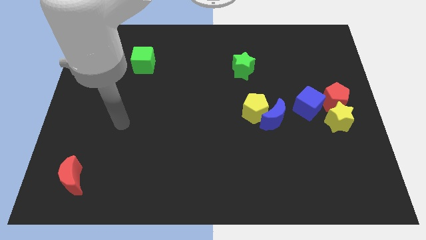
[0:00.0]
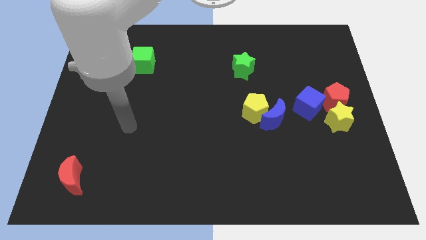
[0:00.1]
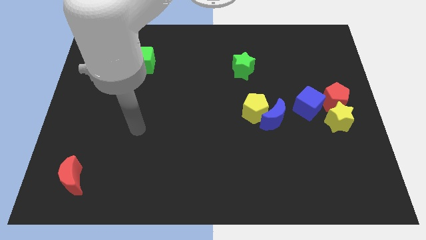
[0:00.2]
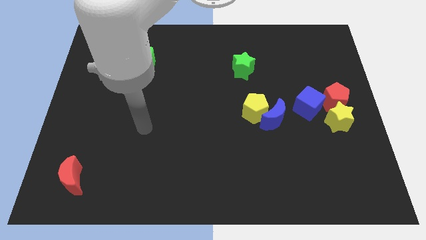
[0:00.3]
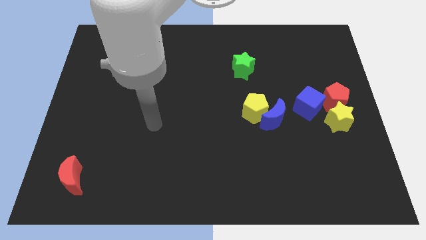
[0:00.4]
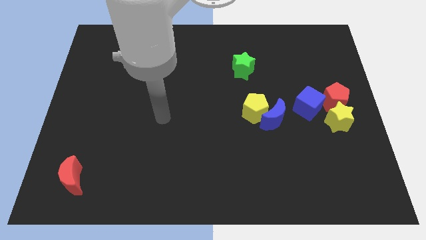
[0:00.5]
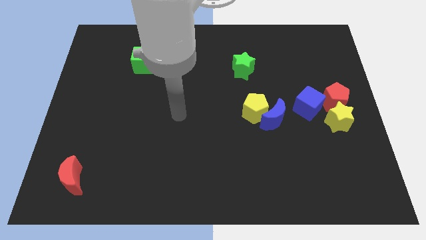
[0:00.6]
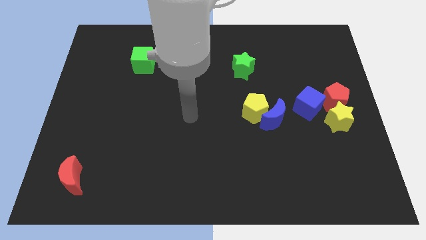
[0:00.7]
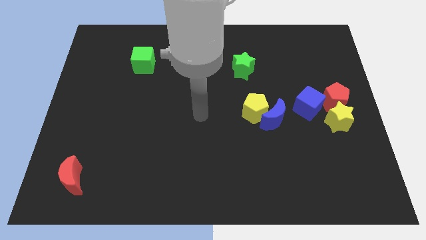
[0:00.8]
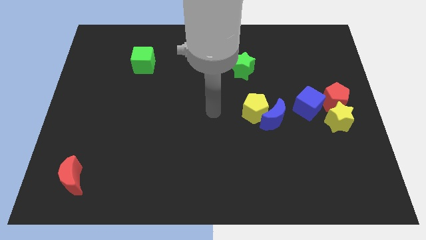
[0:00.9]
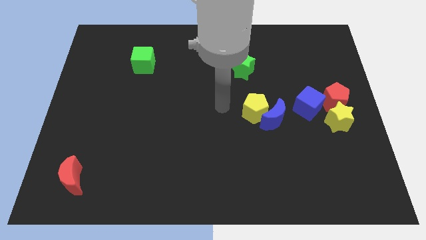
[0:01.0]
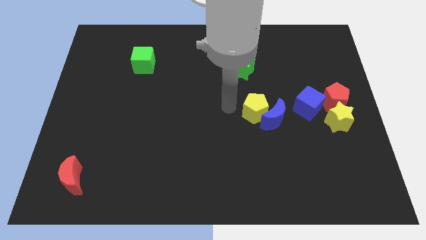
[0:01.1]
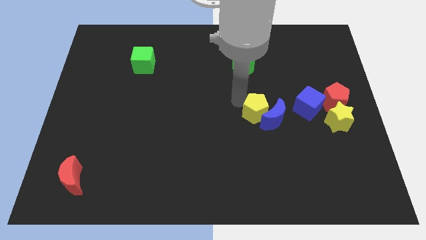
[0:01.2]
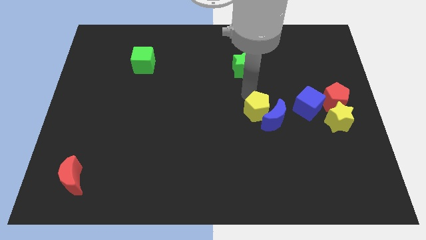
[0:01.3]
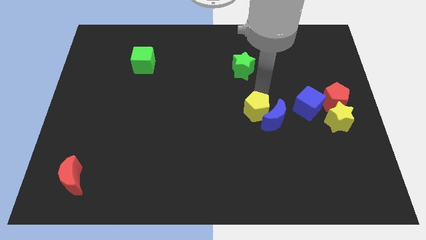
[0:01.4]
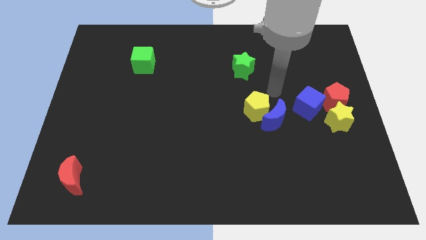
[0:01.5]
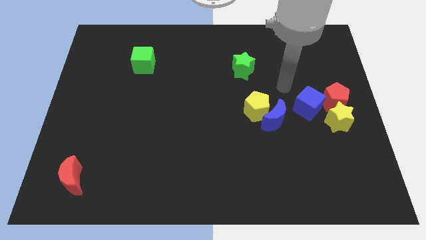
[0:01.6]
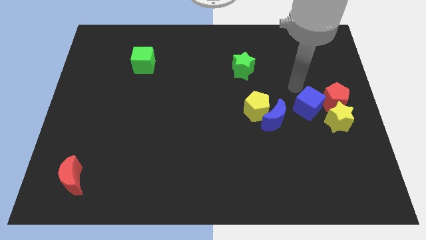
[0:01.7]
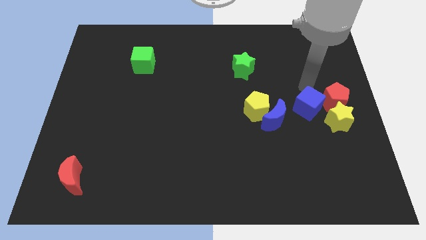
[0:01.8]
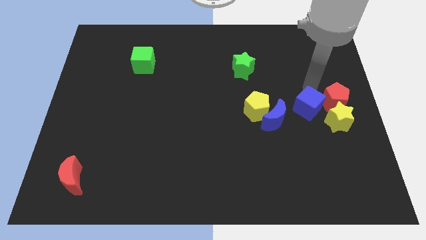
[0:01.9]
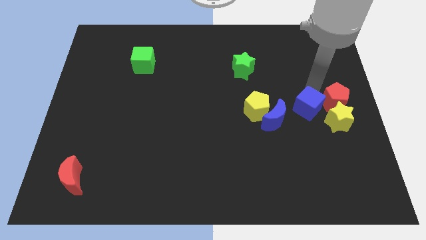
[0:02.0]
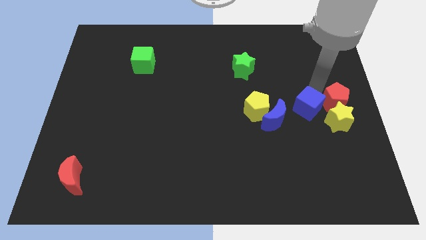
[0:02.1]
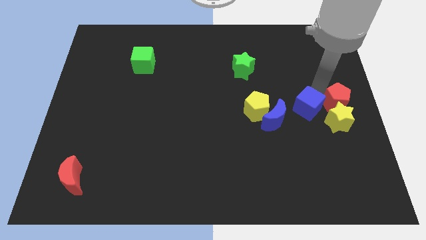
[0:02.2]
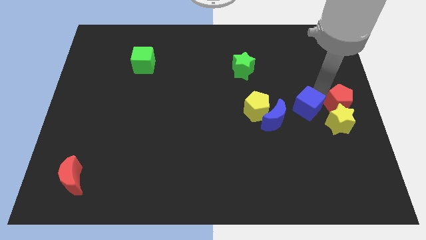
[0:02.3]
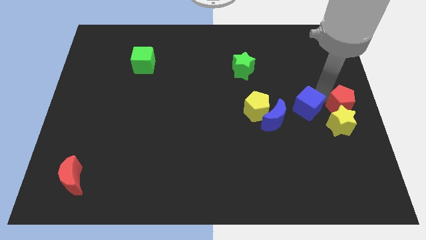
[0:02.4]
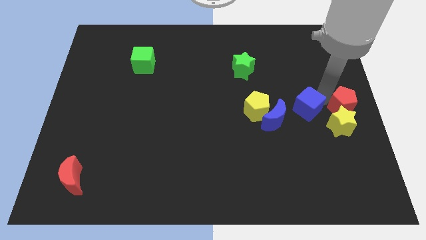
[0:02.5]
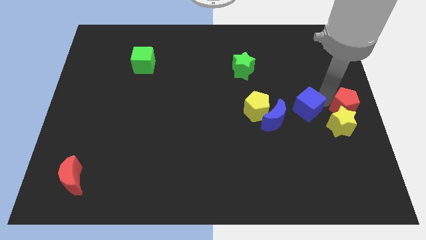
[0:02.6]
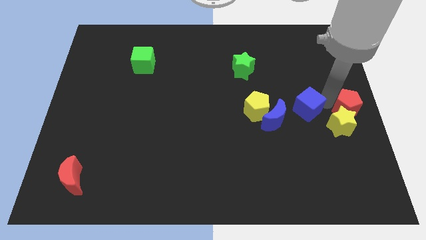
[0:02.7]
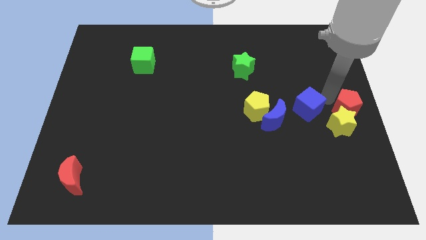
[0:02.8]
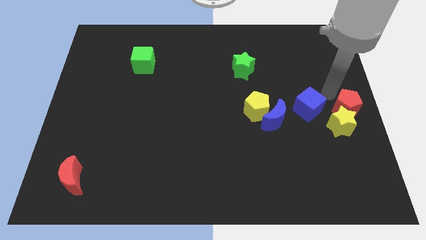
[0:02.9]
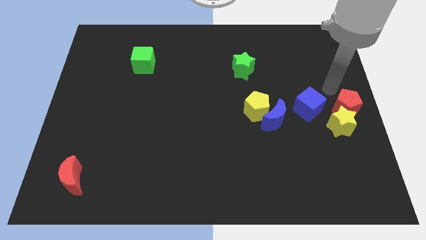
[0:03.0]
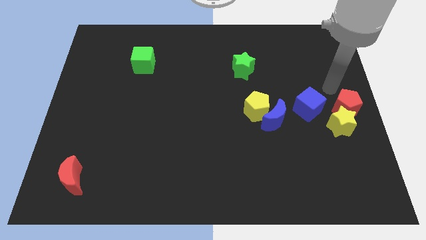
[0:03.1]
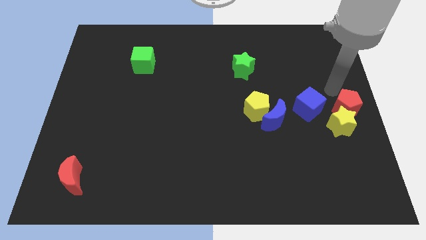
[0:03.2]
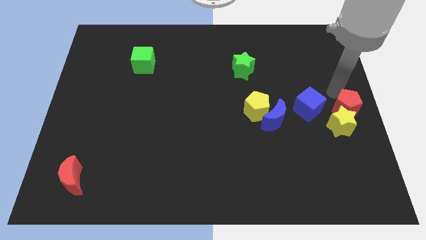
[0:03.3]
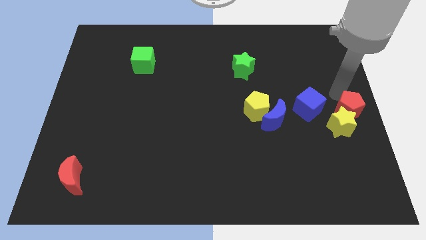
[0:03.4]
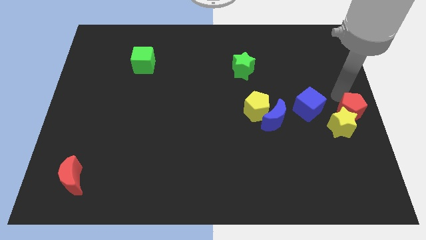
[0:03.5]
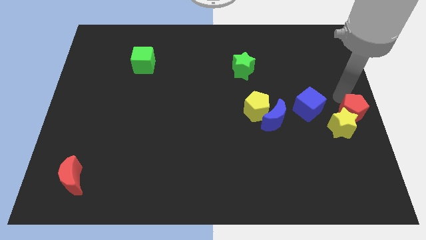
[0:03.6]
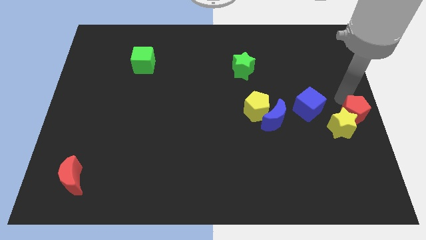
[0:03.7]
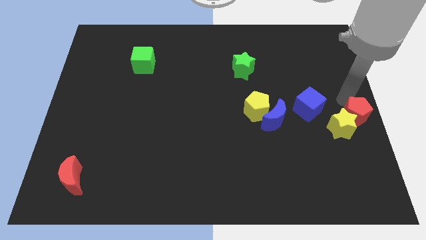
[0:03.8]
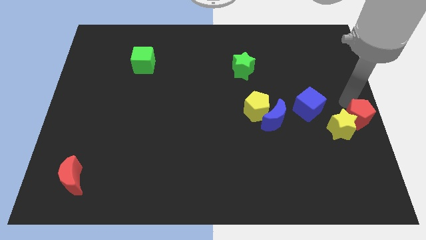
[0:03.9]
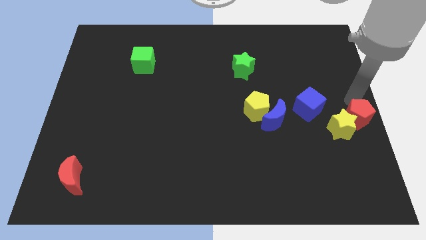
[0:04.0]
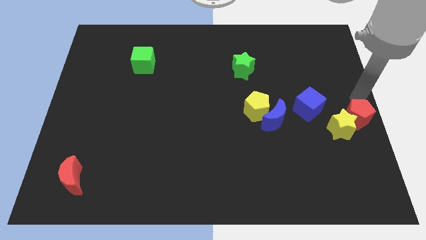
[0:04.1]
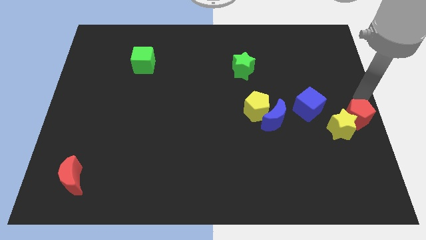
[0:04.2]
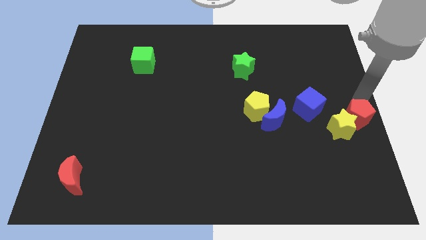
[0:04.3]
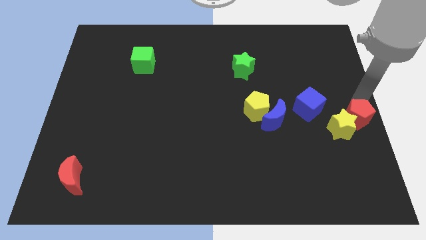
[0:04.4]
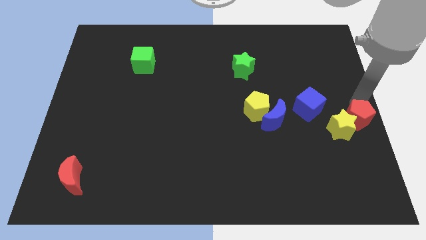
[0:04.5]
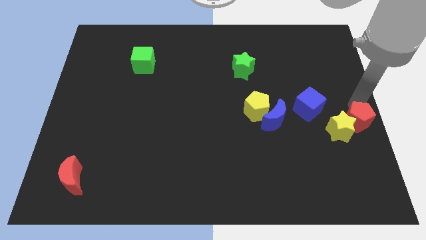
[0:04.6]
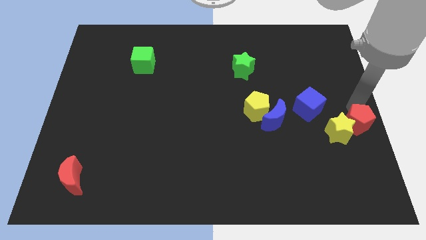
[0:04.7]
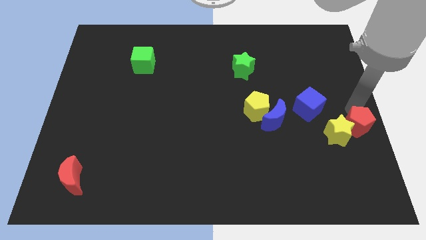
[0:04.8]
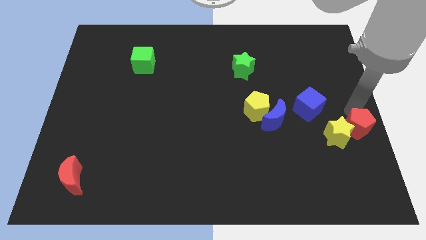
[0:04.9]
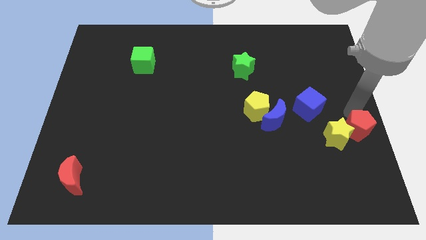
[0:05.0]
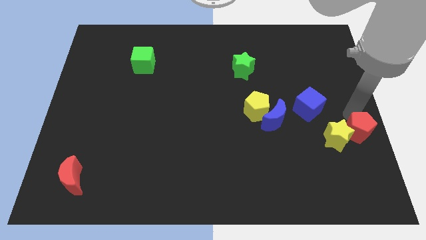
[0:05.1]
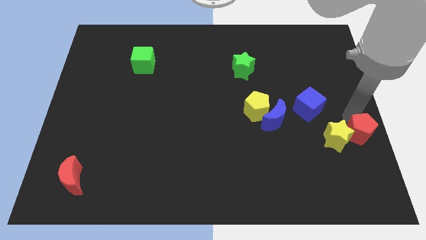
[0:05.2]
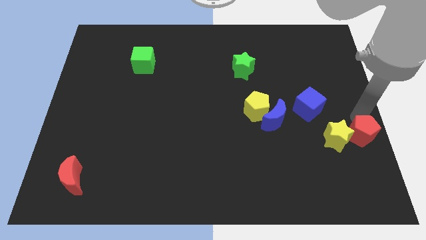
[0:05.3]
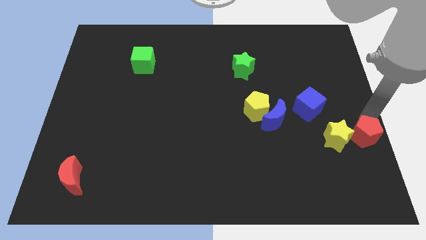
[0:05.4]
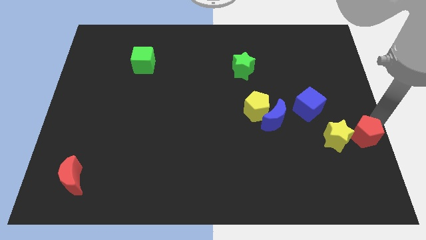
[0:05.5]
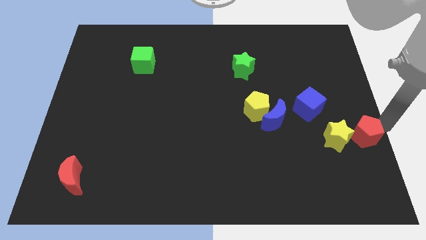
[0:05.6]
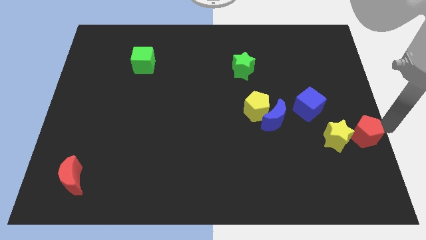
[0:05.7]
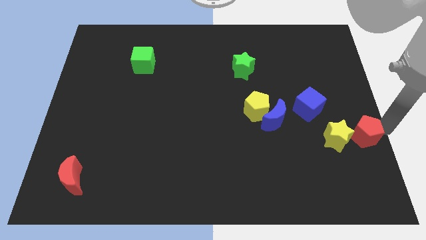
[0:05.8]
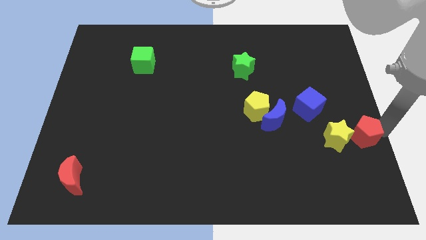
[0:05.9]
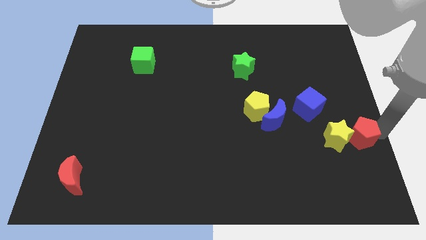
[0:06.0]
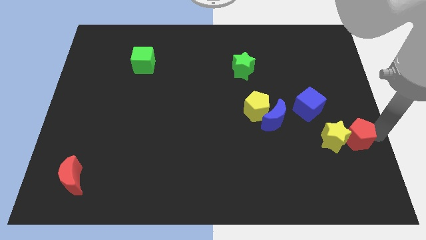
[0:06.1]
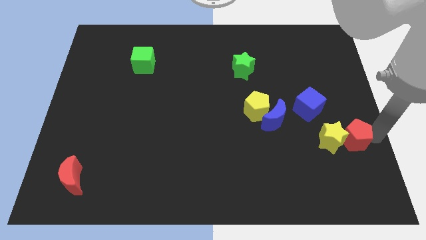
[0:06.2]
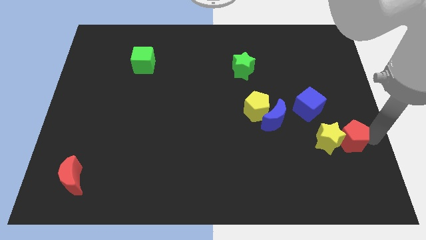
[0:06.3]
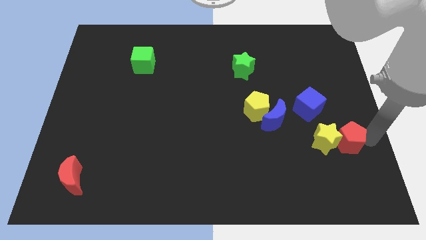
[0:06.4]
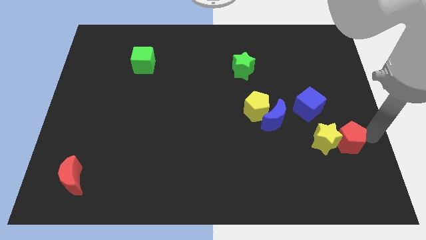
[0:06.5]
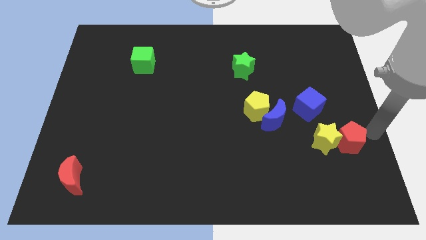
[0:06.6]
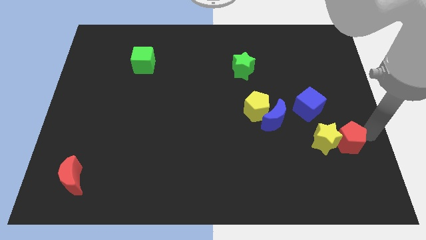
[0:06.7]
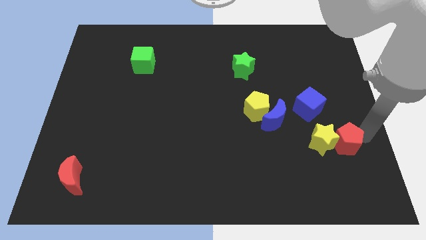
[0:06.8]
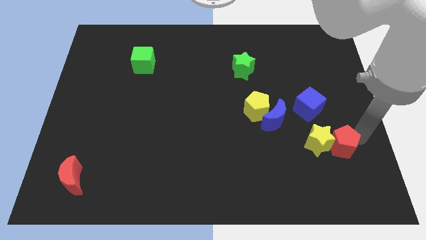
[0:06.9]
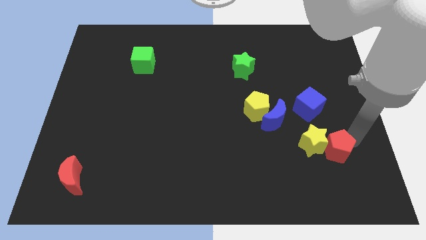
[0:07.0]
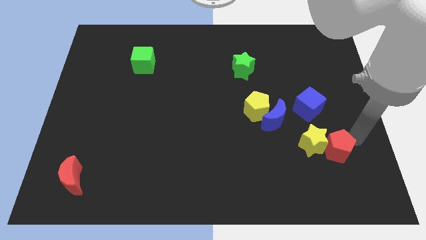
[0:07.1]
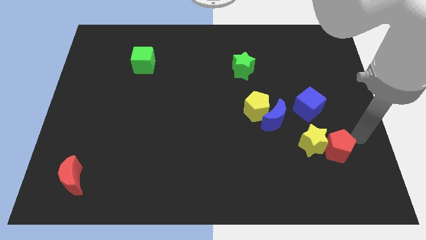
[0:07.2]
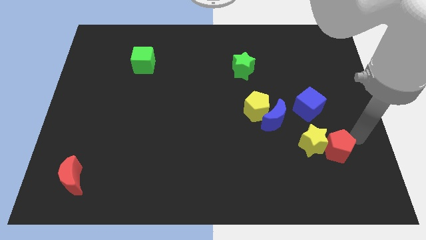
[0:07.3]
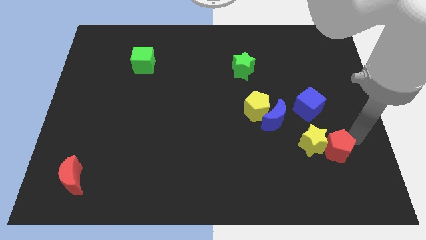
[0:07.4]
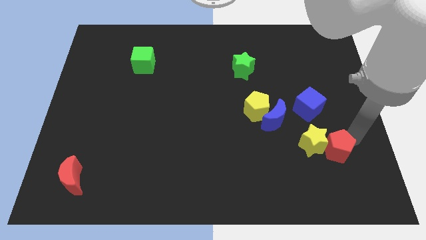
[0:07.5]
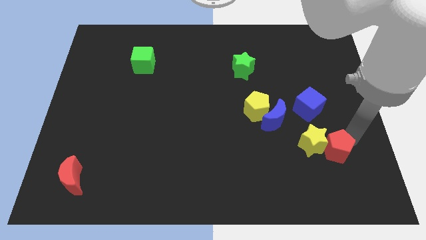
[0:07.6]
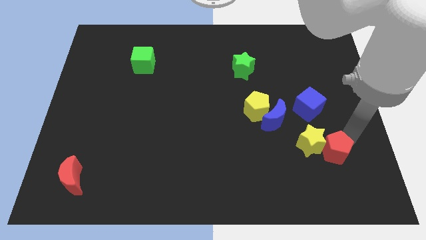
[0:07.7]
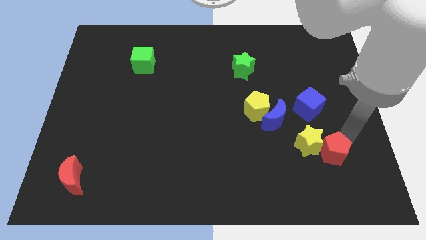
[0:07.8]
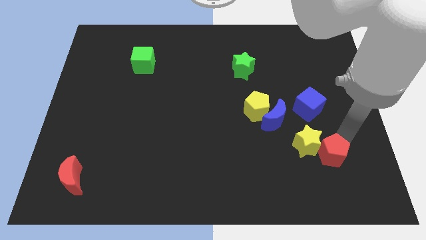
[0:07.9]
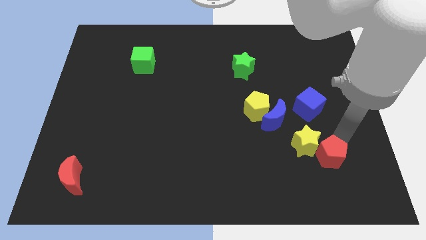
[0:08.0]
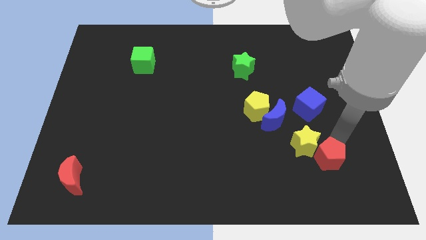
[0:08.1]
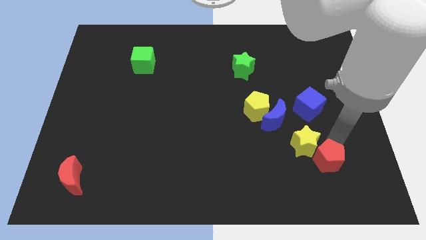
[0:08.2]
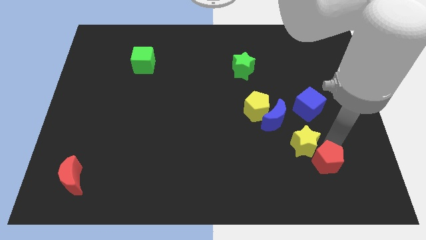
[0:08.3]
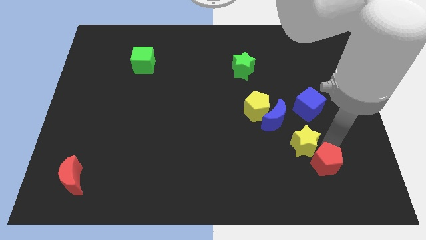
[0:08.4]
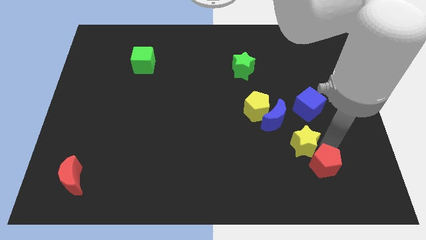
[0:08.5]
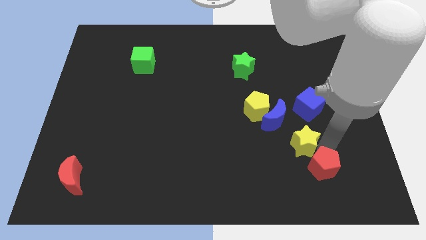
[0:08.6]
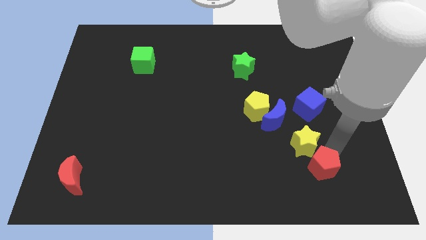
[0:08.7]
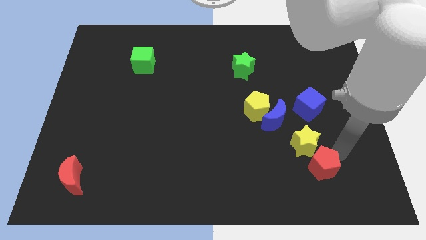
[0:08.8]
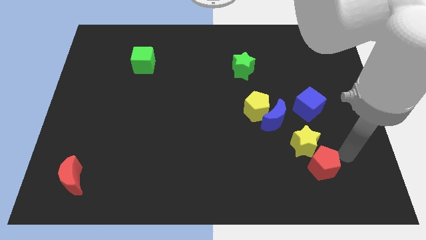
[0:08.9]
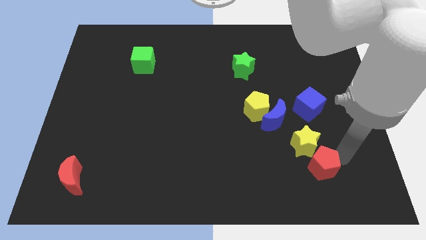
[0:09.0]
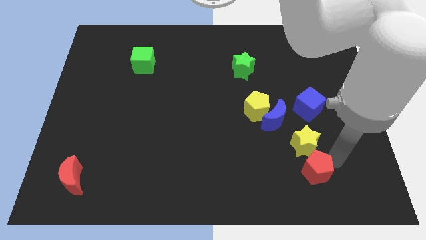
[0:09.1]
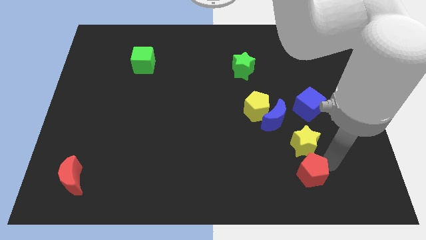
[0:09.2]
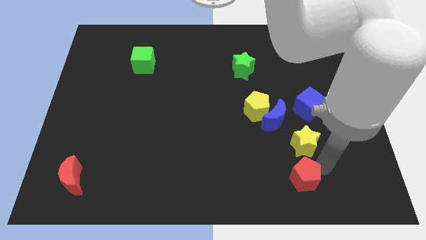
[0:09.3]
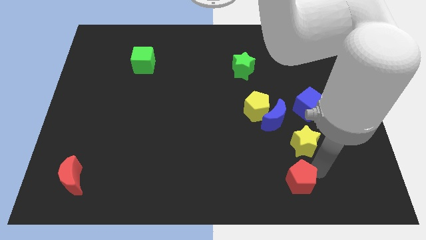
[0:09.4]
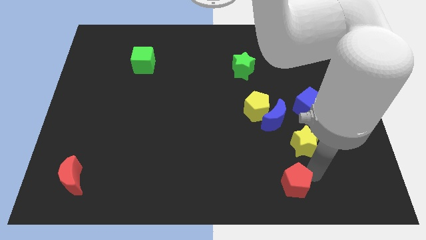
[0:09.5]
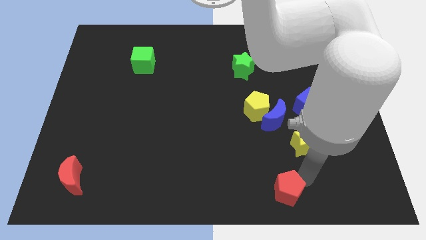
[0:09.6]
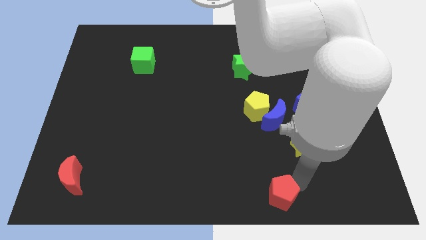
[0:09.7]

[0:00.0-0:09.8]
move the red pentagon to the bottom side
